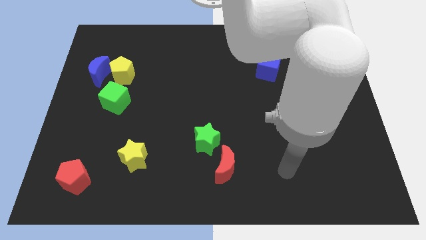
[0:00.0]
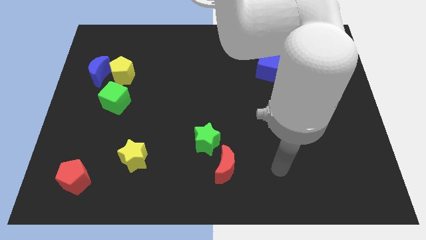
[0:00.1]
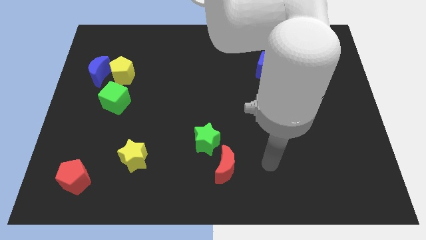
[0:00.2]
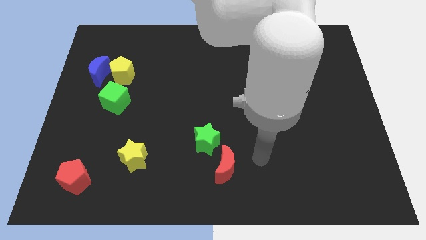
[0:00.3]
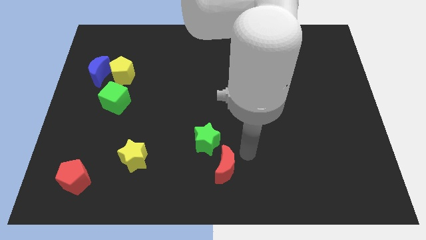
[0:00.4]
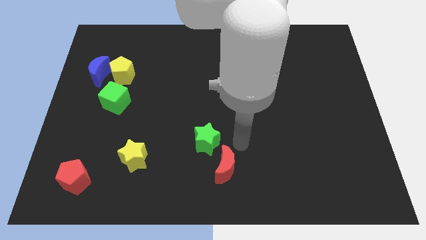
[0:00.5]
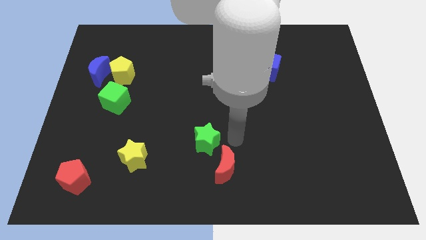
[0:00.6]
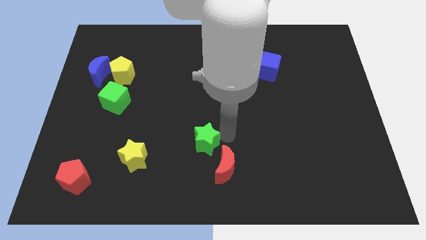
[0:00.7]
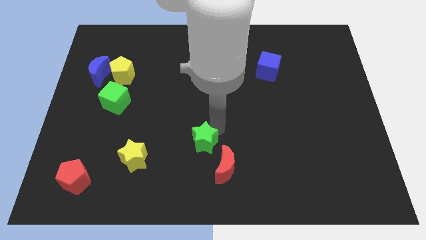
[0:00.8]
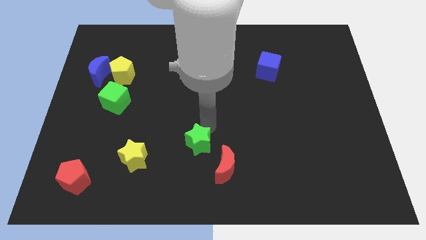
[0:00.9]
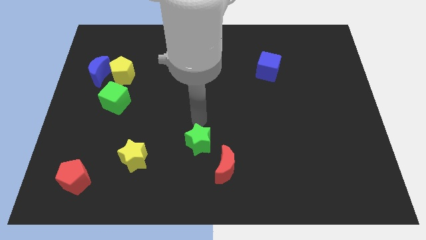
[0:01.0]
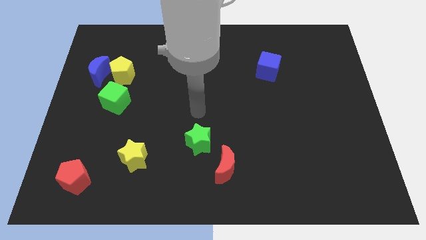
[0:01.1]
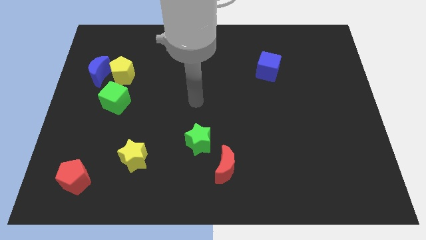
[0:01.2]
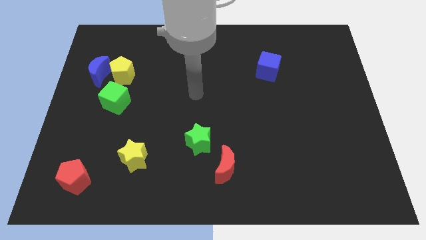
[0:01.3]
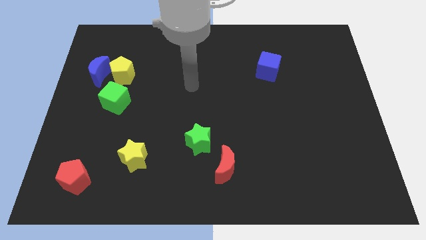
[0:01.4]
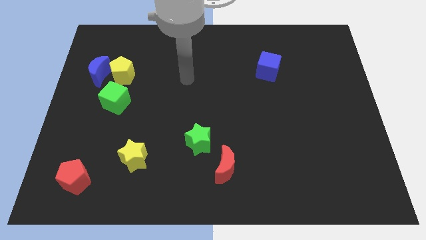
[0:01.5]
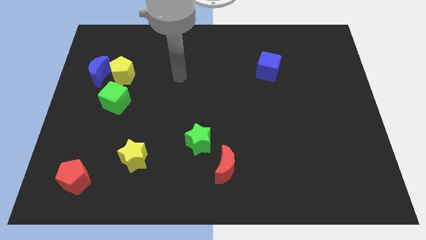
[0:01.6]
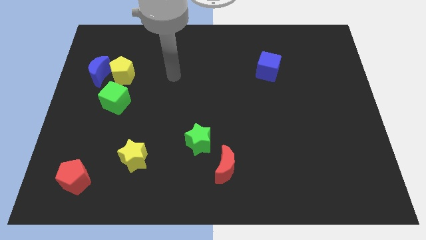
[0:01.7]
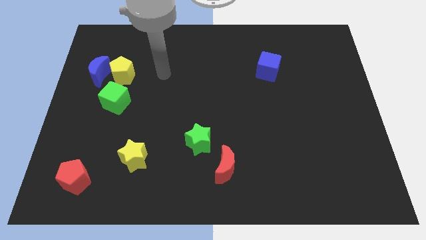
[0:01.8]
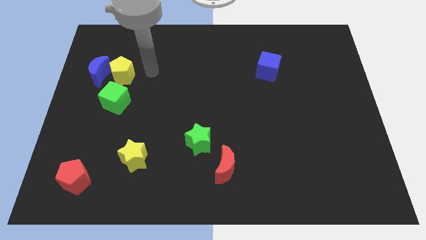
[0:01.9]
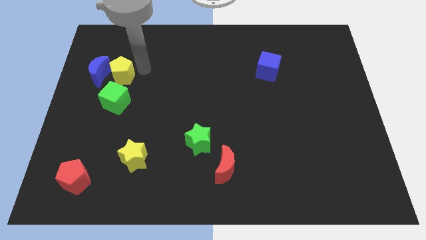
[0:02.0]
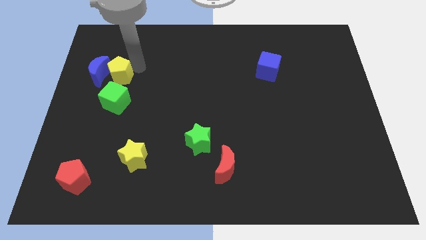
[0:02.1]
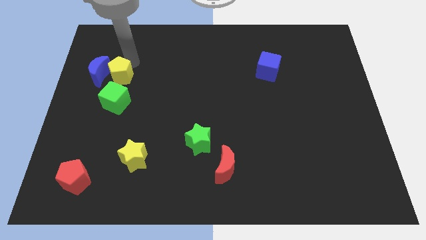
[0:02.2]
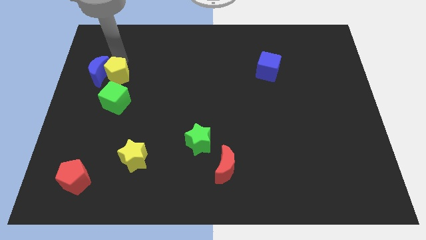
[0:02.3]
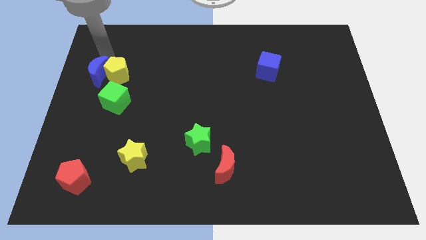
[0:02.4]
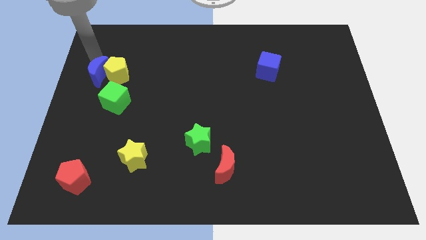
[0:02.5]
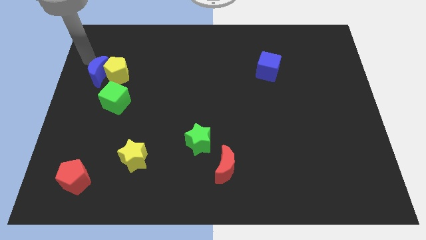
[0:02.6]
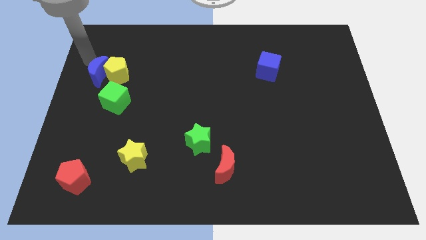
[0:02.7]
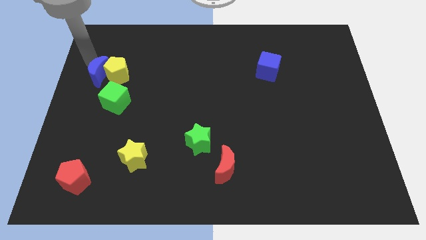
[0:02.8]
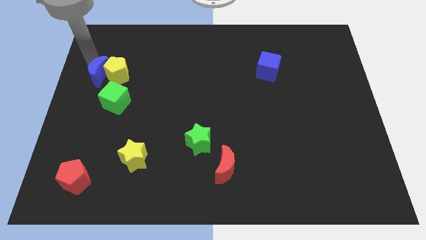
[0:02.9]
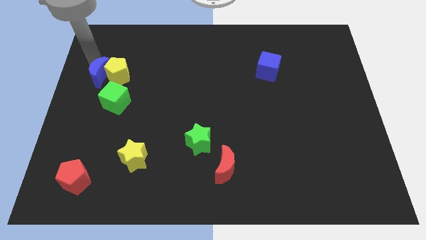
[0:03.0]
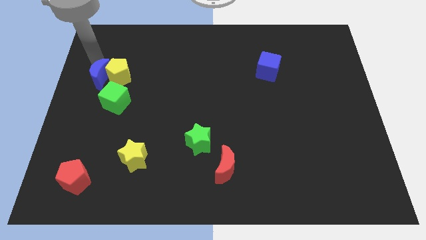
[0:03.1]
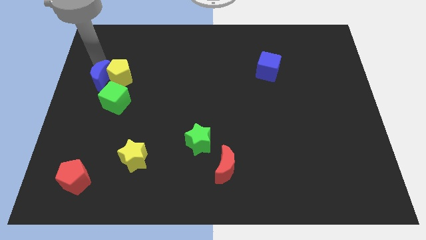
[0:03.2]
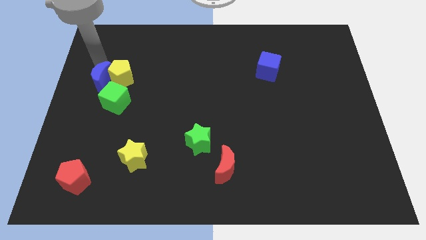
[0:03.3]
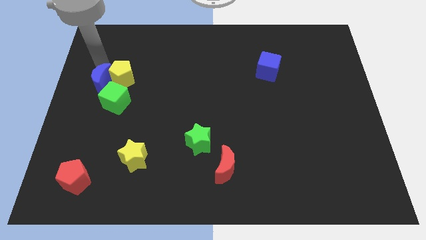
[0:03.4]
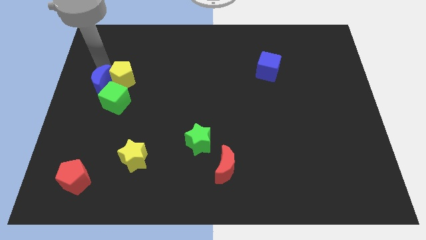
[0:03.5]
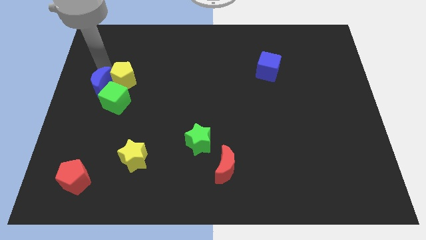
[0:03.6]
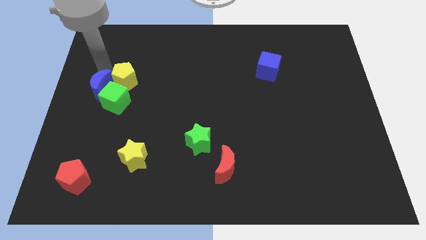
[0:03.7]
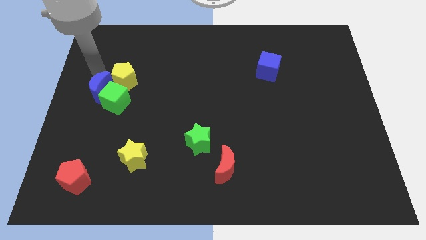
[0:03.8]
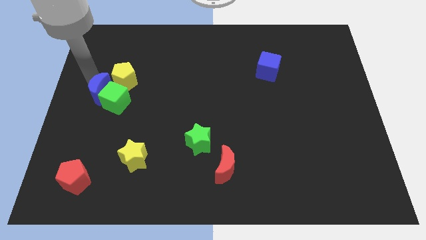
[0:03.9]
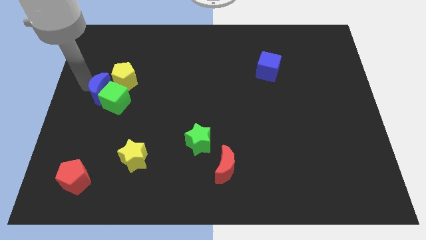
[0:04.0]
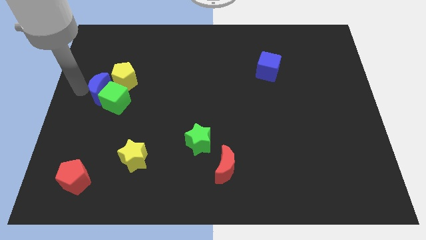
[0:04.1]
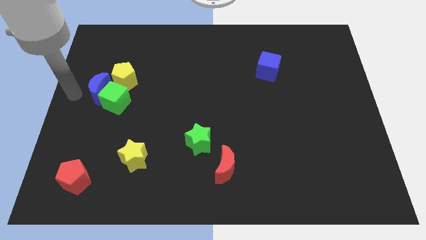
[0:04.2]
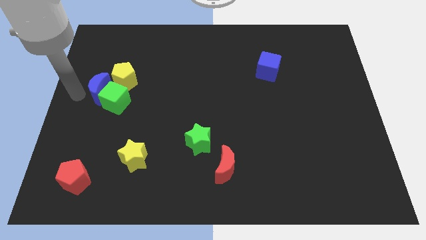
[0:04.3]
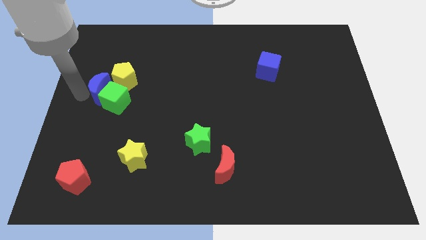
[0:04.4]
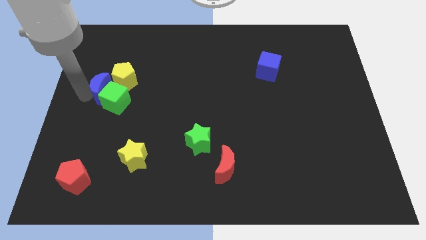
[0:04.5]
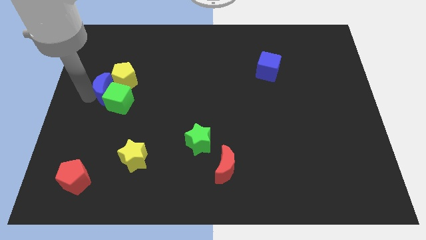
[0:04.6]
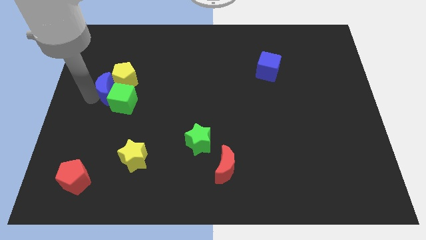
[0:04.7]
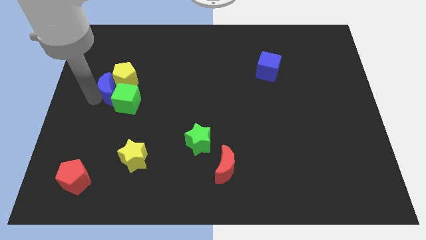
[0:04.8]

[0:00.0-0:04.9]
slightly push the blue moon downwards and to the right diagonally

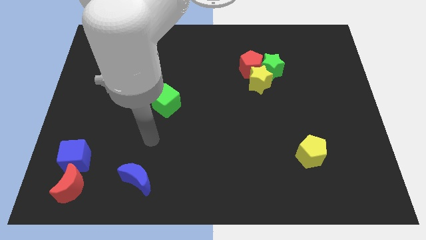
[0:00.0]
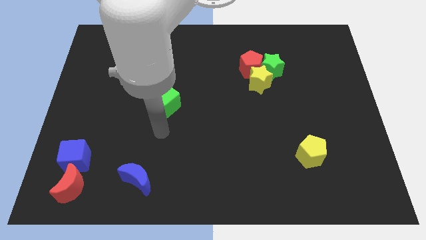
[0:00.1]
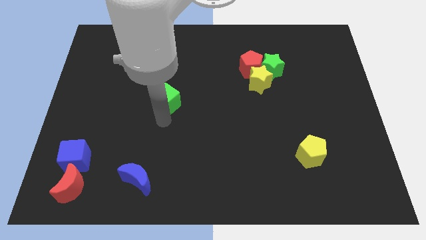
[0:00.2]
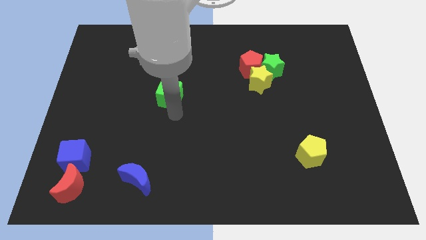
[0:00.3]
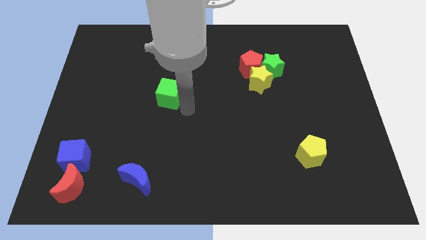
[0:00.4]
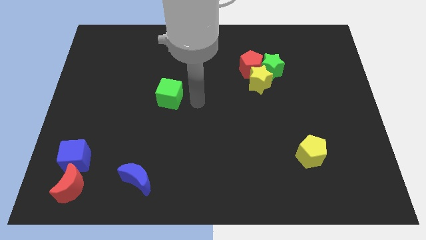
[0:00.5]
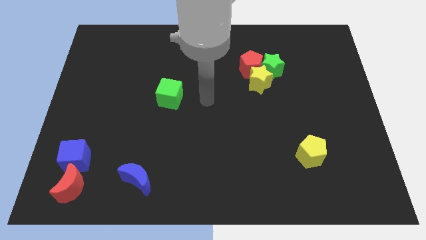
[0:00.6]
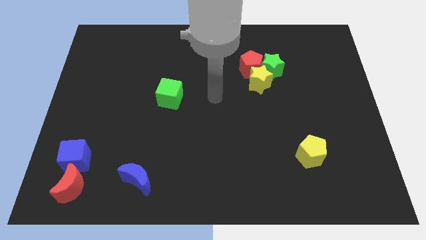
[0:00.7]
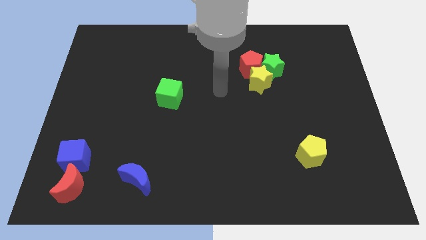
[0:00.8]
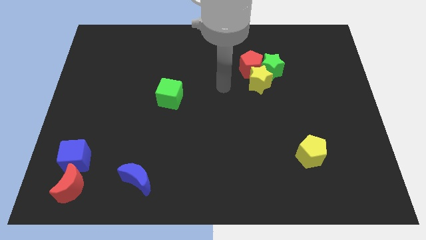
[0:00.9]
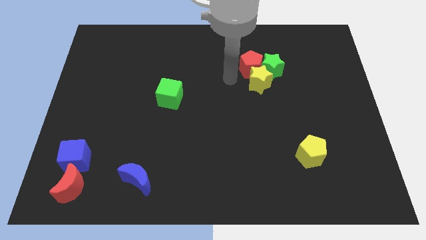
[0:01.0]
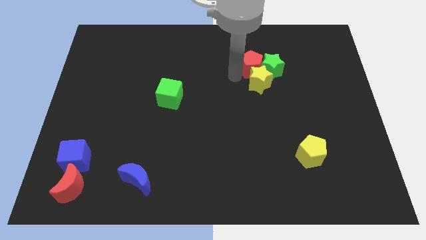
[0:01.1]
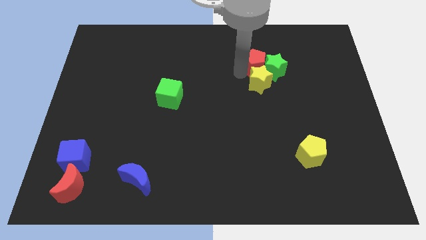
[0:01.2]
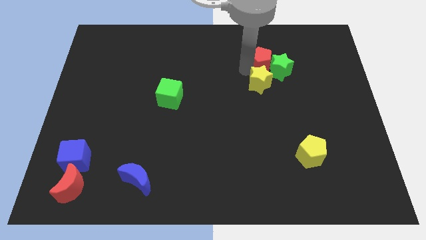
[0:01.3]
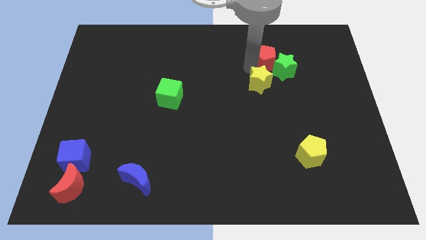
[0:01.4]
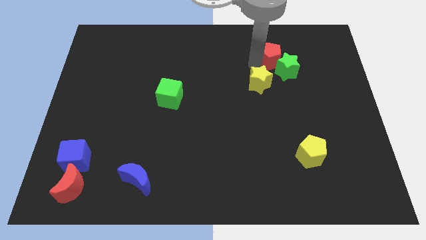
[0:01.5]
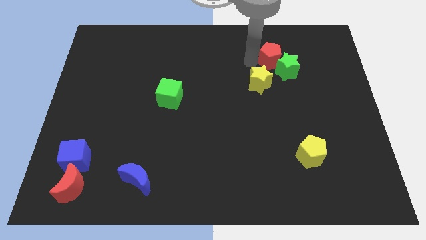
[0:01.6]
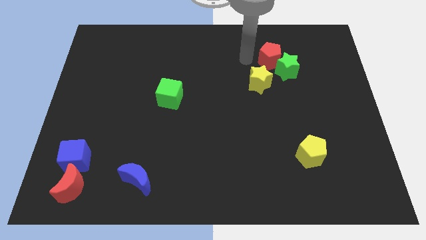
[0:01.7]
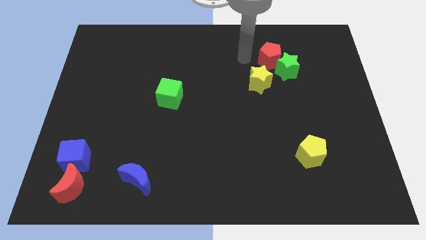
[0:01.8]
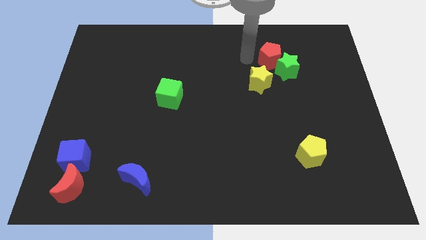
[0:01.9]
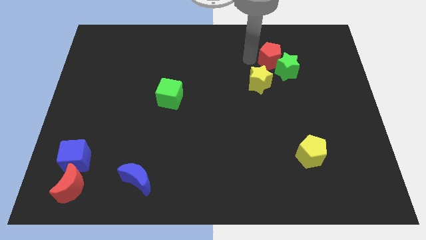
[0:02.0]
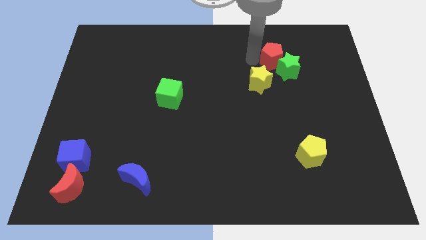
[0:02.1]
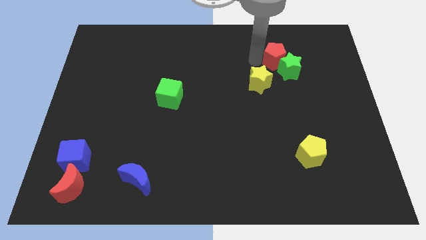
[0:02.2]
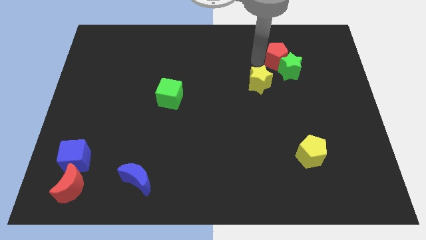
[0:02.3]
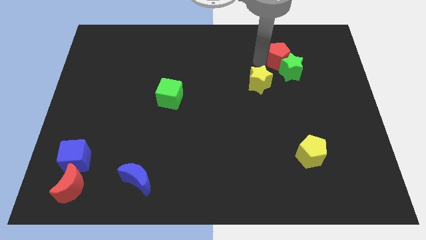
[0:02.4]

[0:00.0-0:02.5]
slide the red pentagon a bit right

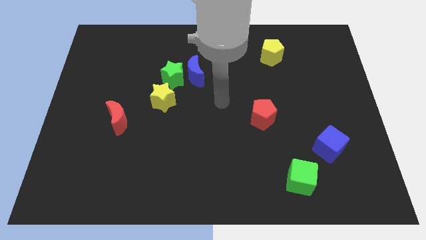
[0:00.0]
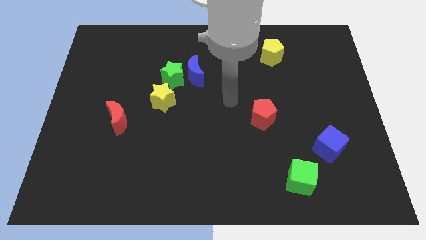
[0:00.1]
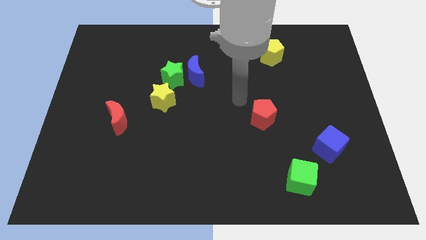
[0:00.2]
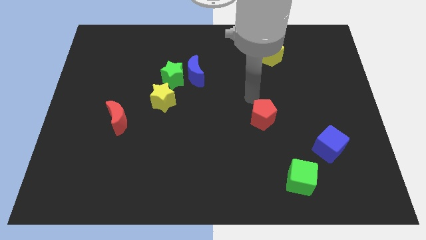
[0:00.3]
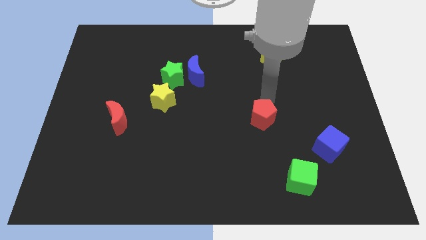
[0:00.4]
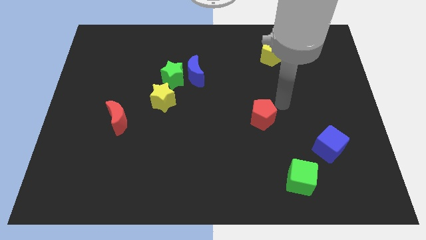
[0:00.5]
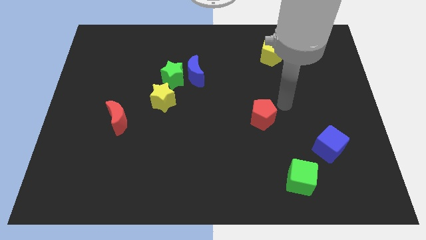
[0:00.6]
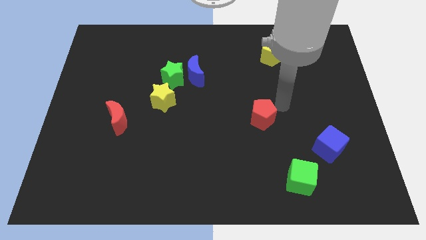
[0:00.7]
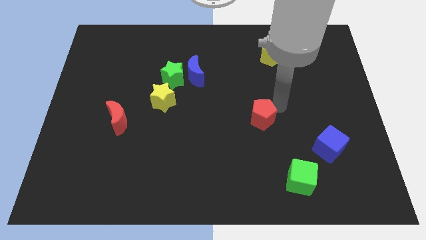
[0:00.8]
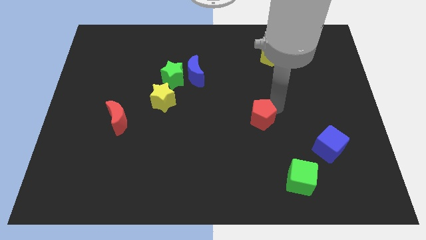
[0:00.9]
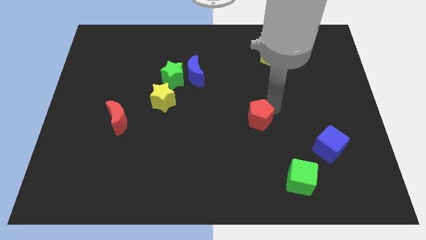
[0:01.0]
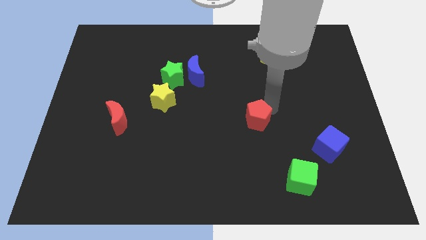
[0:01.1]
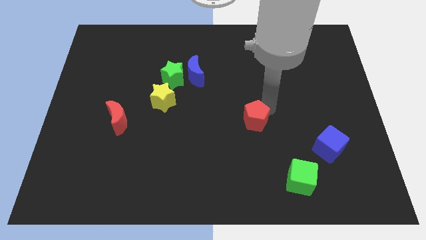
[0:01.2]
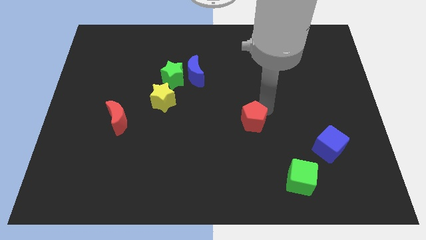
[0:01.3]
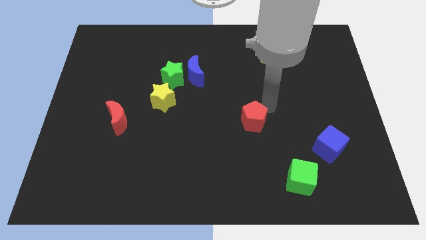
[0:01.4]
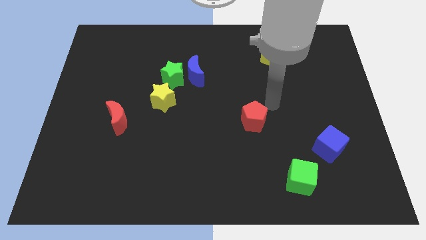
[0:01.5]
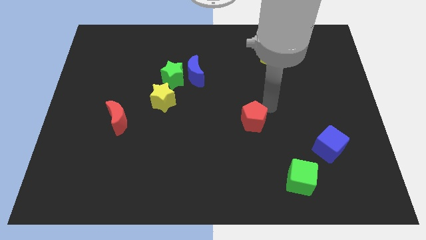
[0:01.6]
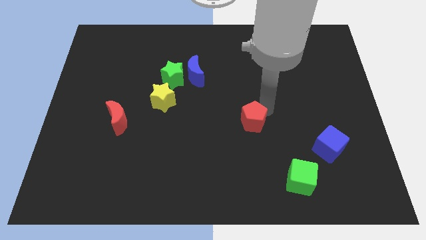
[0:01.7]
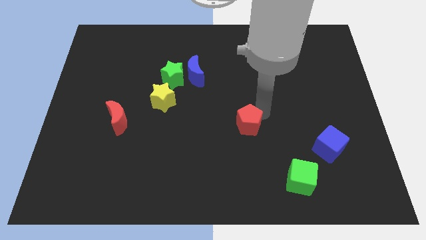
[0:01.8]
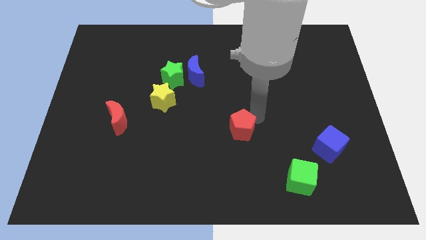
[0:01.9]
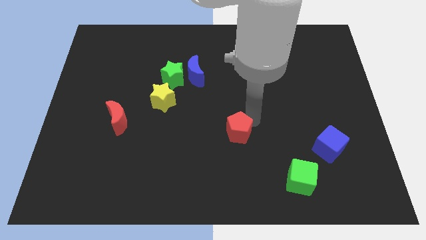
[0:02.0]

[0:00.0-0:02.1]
slightly move the red pentagon down and to the left
